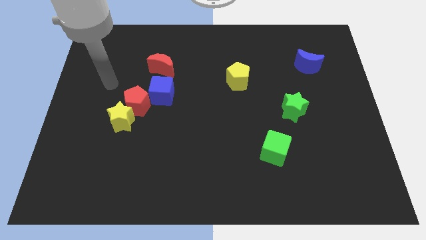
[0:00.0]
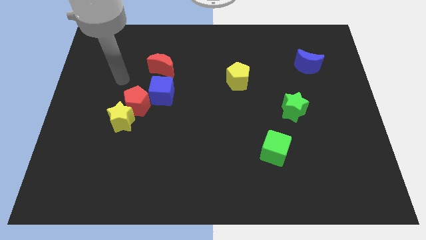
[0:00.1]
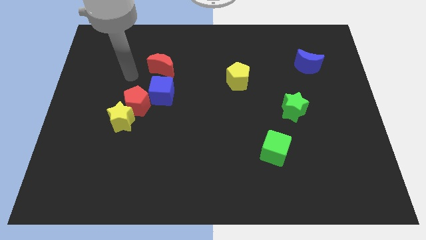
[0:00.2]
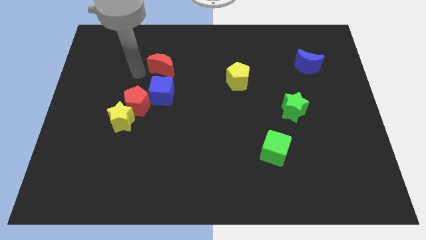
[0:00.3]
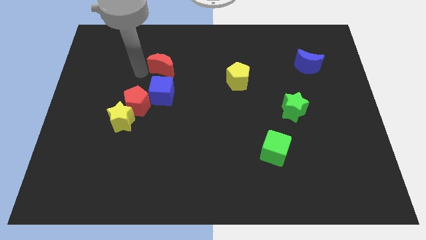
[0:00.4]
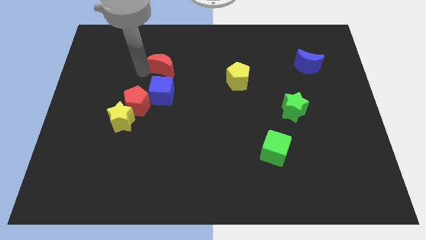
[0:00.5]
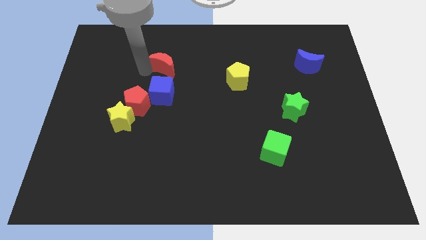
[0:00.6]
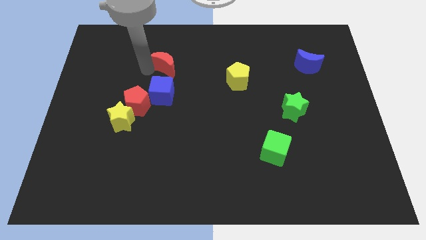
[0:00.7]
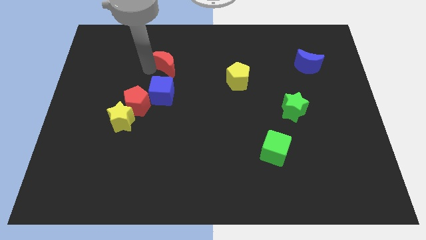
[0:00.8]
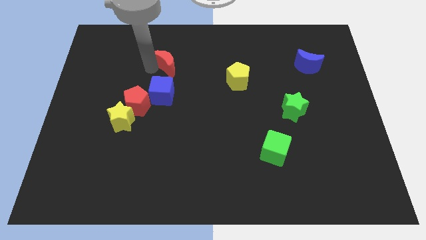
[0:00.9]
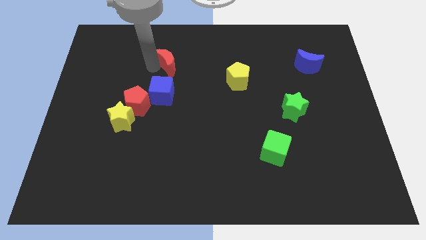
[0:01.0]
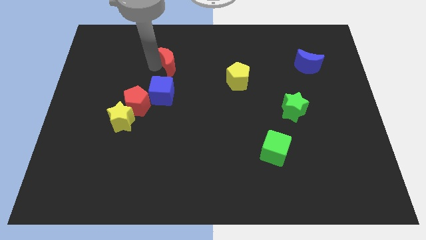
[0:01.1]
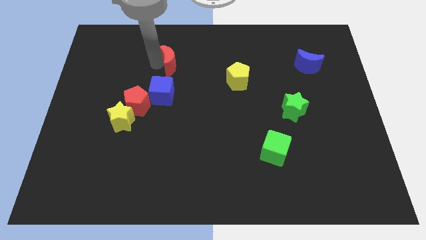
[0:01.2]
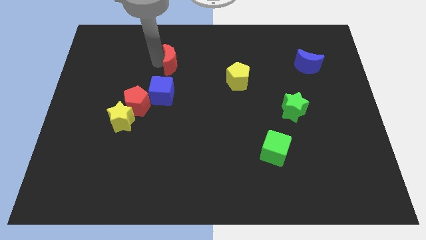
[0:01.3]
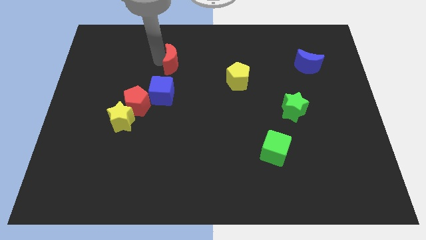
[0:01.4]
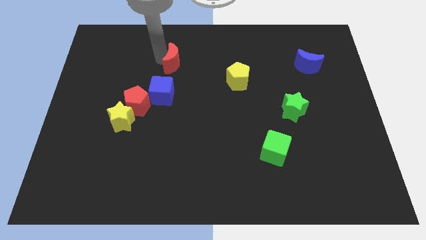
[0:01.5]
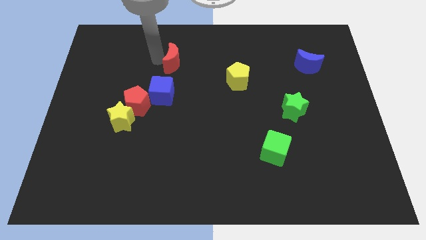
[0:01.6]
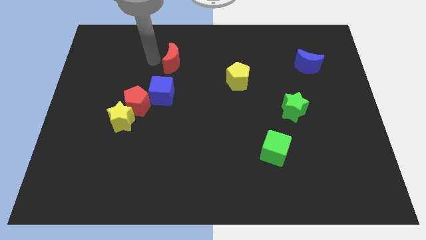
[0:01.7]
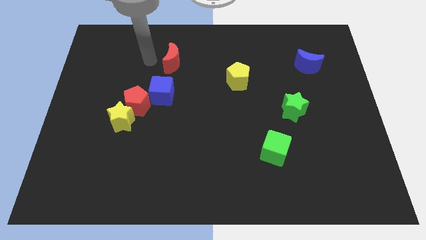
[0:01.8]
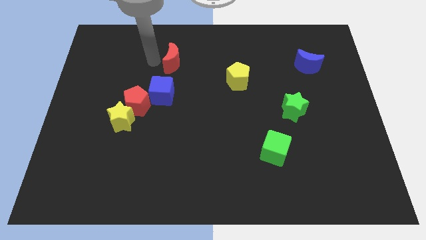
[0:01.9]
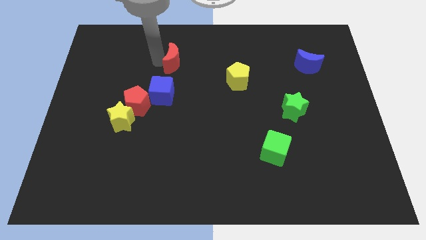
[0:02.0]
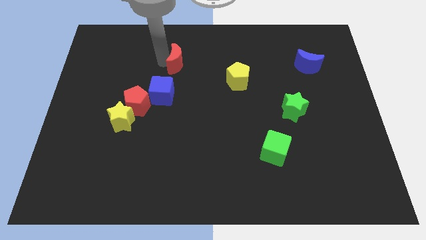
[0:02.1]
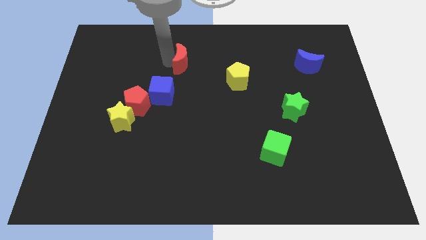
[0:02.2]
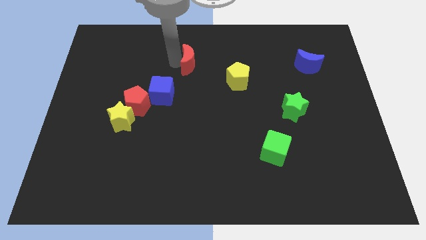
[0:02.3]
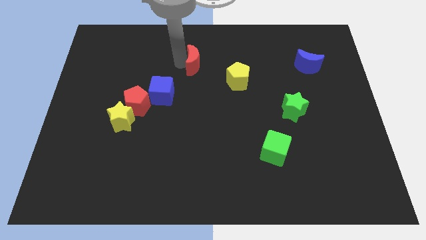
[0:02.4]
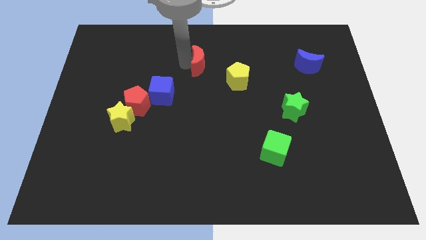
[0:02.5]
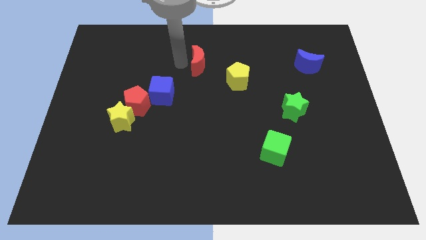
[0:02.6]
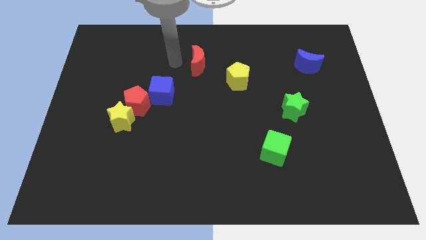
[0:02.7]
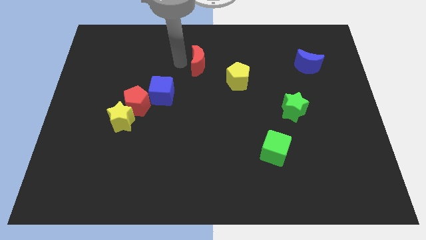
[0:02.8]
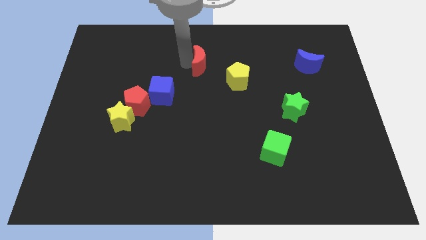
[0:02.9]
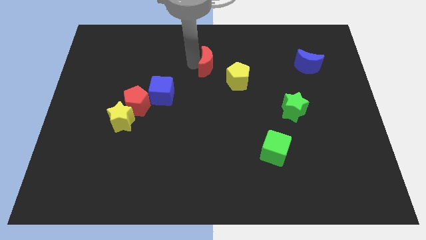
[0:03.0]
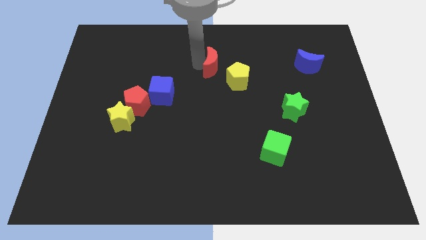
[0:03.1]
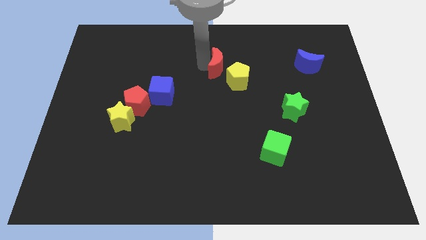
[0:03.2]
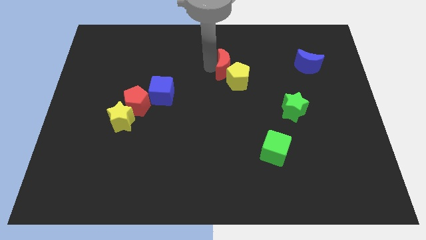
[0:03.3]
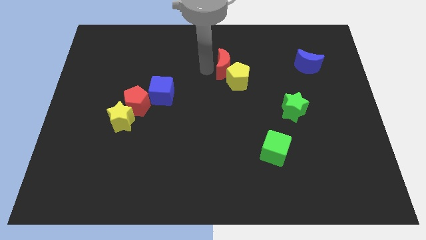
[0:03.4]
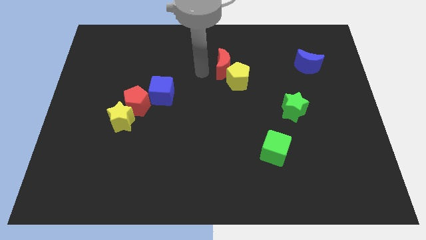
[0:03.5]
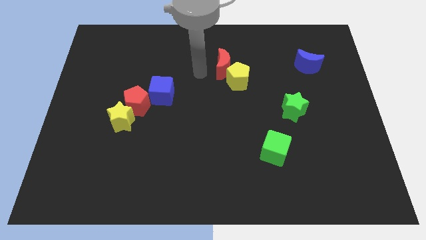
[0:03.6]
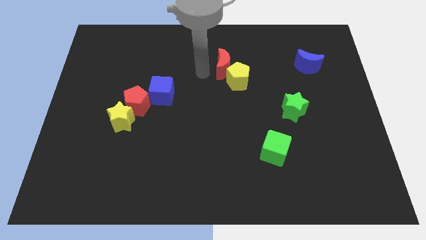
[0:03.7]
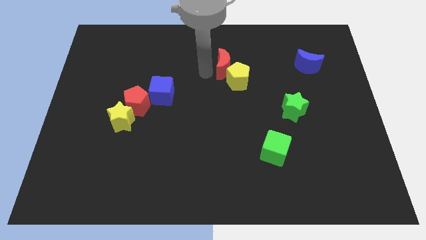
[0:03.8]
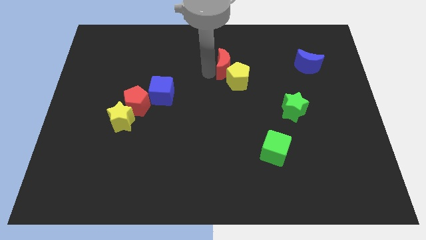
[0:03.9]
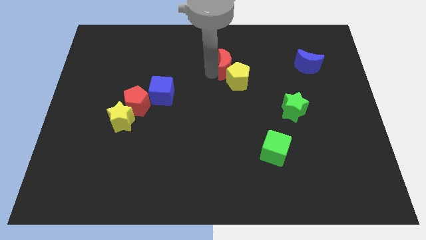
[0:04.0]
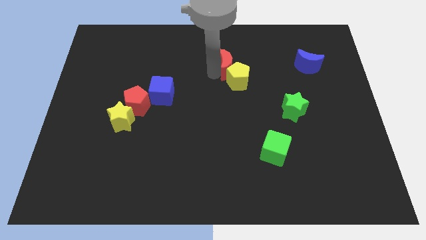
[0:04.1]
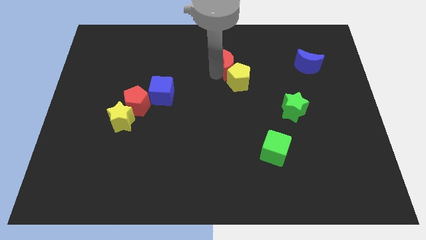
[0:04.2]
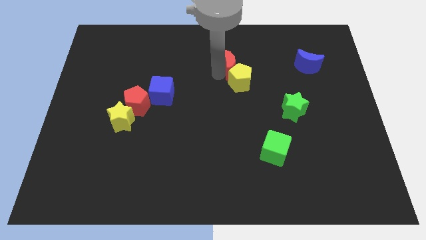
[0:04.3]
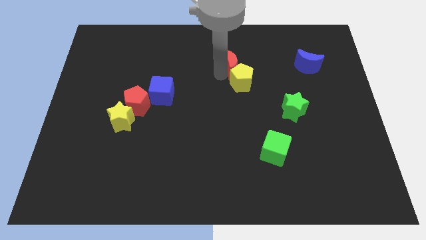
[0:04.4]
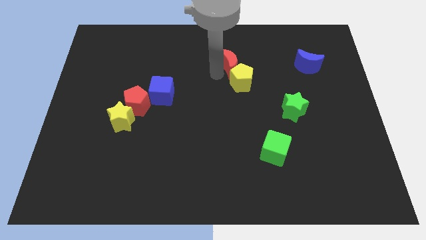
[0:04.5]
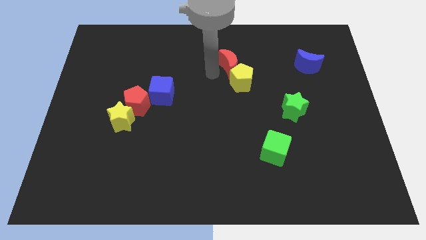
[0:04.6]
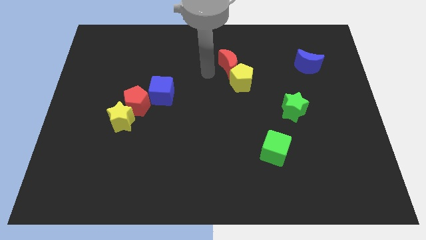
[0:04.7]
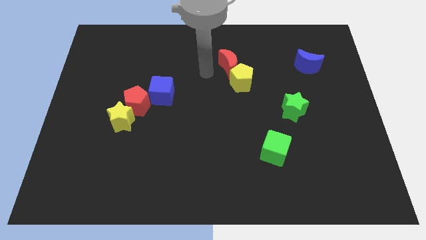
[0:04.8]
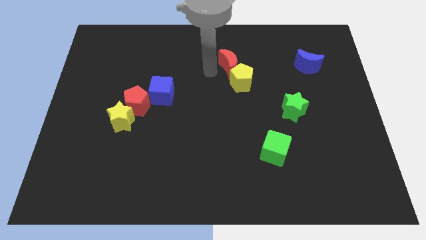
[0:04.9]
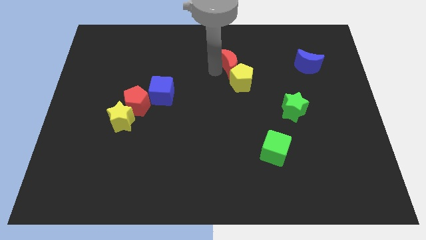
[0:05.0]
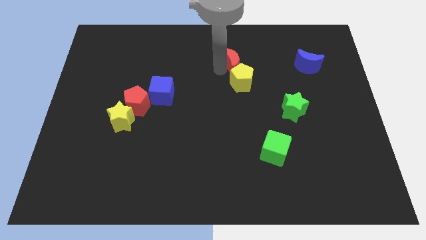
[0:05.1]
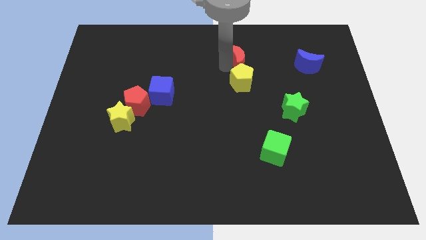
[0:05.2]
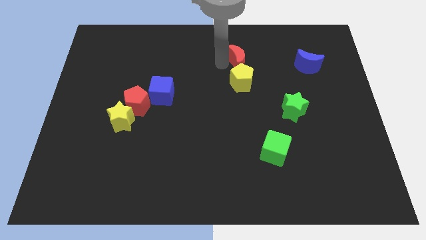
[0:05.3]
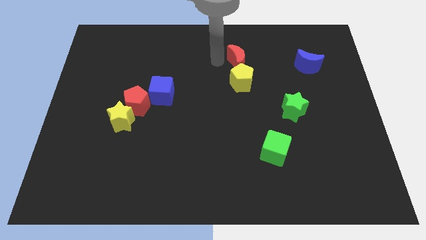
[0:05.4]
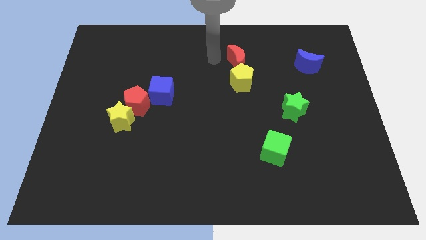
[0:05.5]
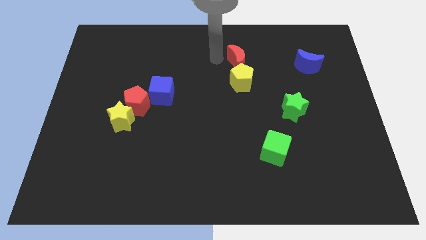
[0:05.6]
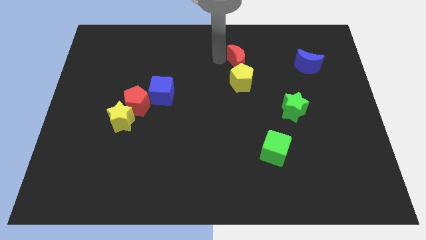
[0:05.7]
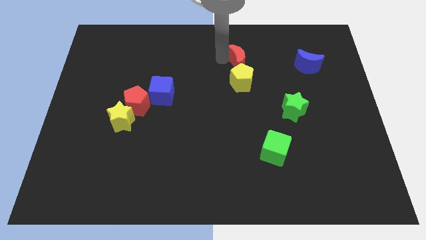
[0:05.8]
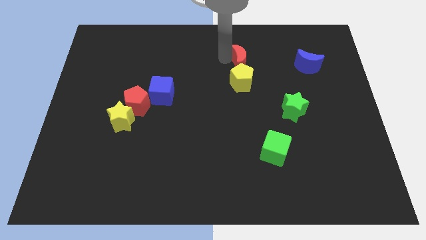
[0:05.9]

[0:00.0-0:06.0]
put the red moon to the top right of the yellow pentagon

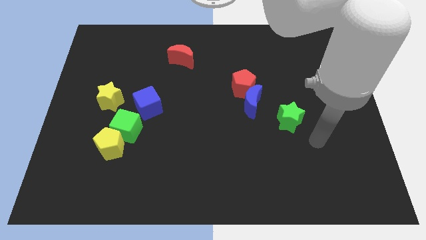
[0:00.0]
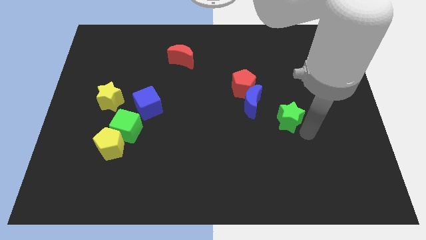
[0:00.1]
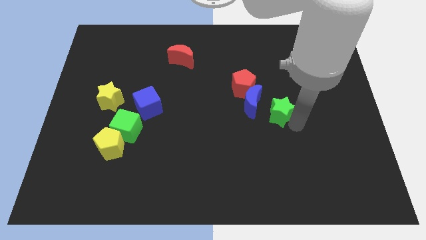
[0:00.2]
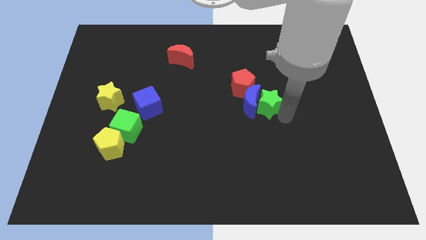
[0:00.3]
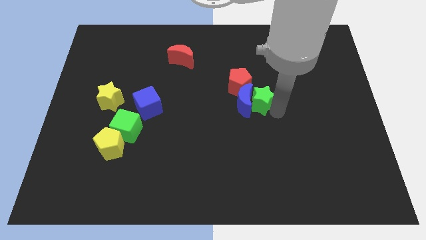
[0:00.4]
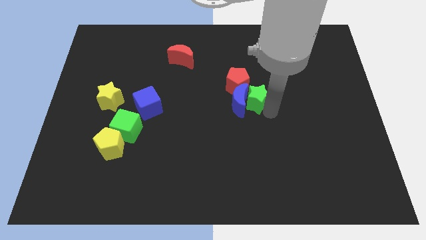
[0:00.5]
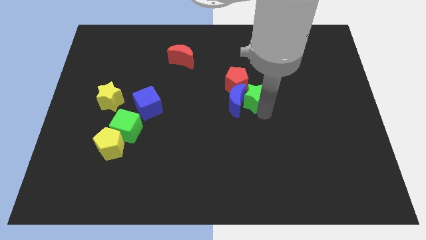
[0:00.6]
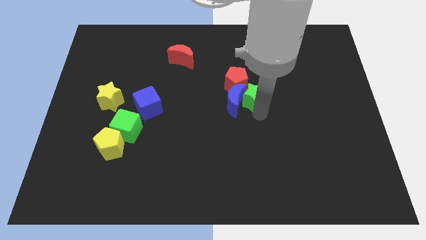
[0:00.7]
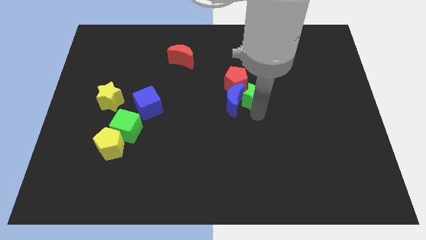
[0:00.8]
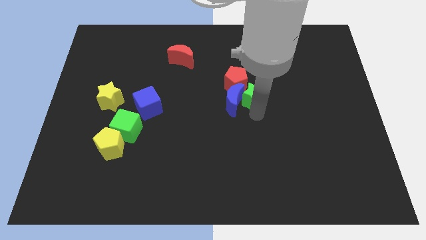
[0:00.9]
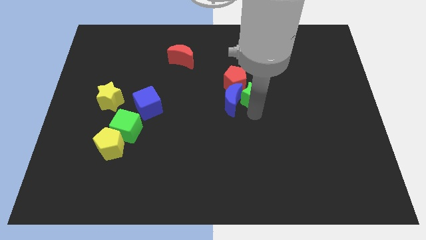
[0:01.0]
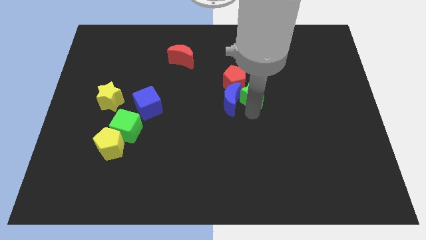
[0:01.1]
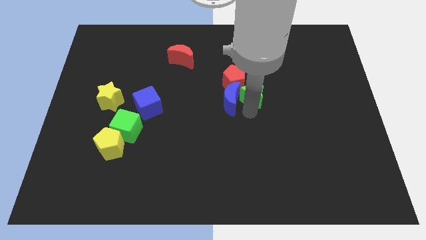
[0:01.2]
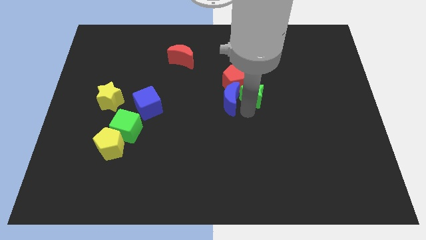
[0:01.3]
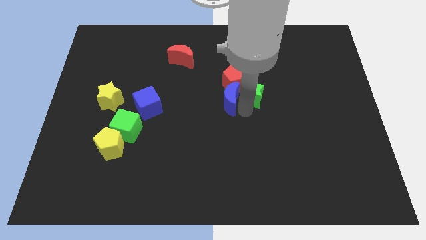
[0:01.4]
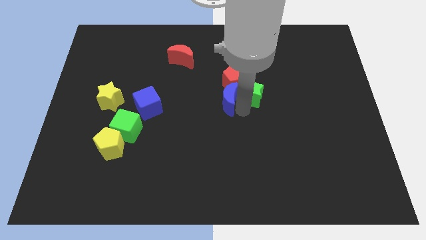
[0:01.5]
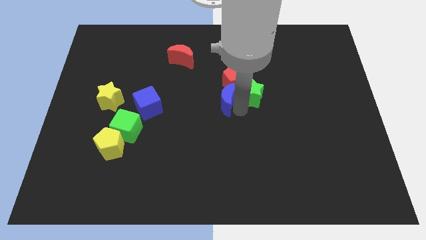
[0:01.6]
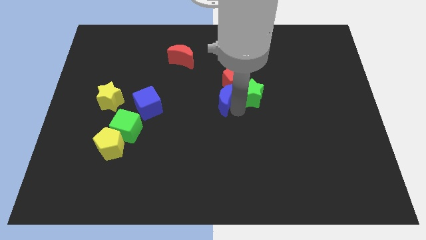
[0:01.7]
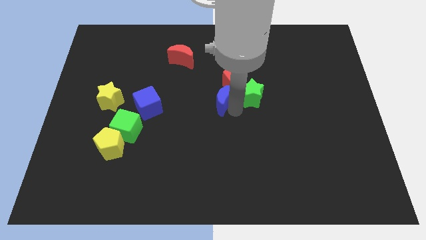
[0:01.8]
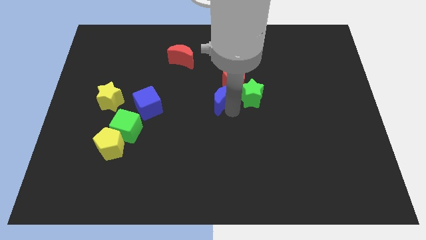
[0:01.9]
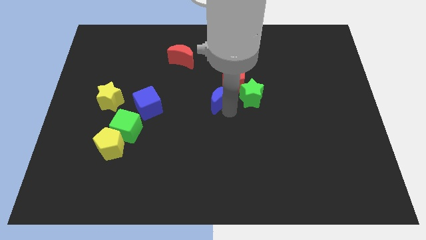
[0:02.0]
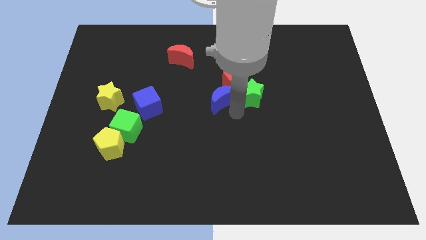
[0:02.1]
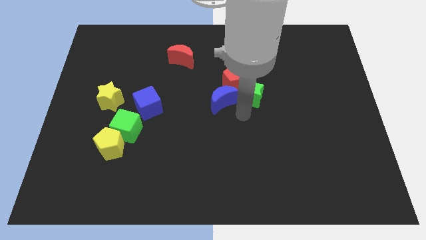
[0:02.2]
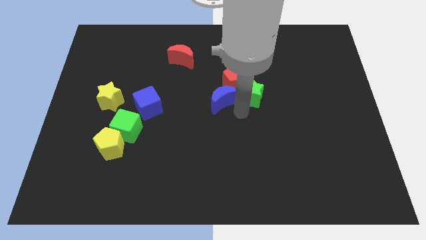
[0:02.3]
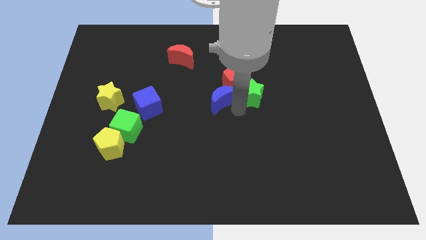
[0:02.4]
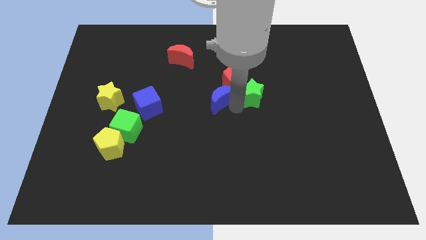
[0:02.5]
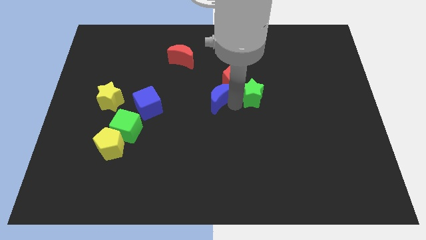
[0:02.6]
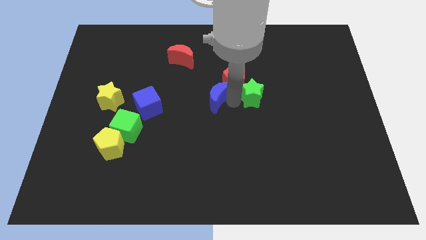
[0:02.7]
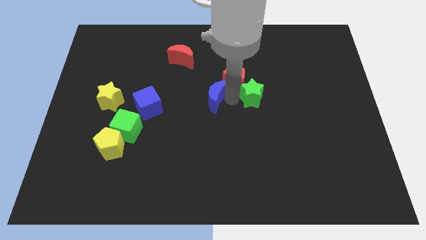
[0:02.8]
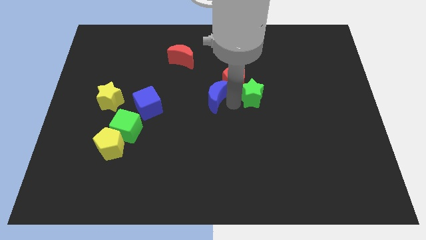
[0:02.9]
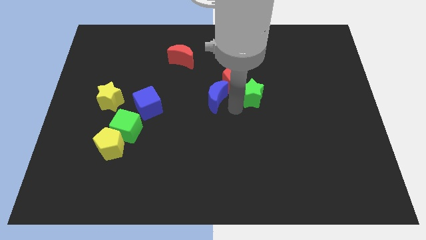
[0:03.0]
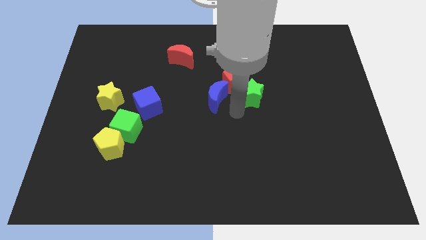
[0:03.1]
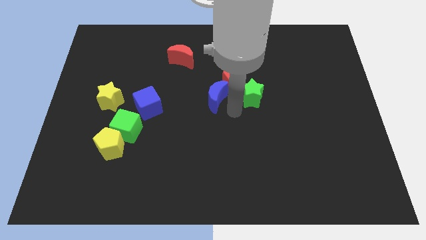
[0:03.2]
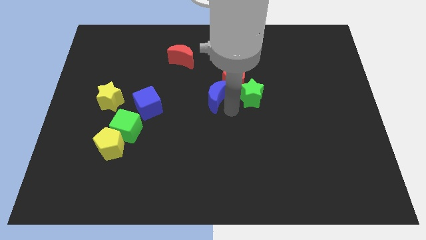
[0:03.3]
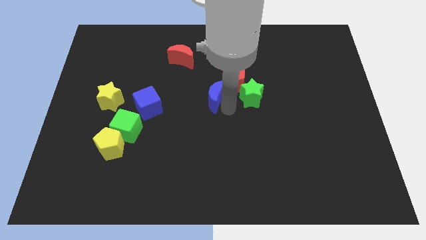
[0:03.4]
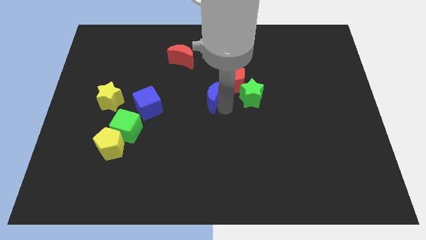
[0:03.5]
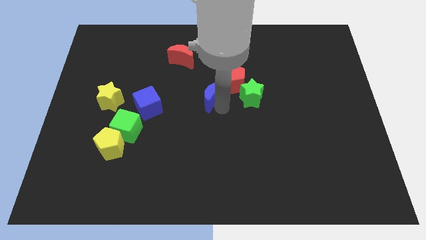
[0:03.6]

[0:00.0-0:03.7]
move the blue moon to the left of the red pentagon
